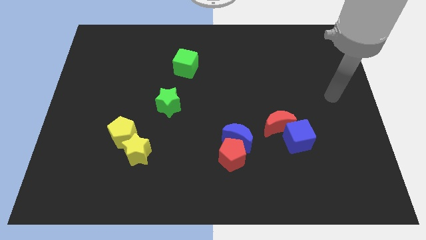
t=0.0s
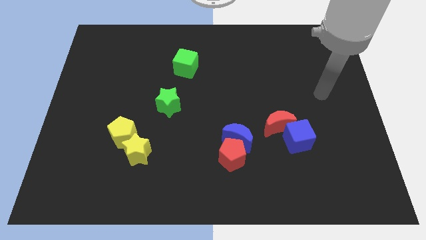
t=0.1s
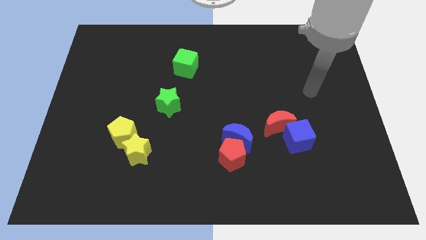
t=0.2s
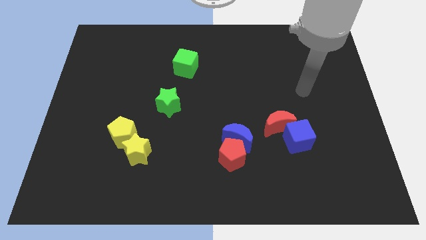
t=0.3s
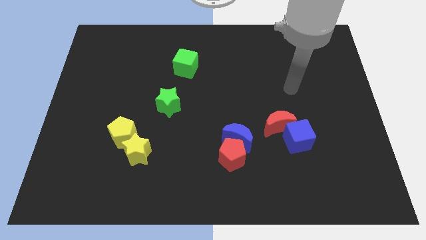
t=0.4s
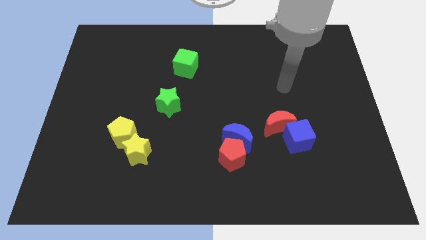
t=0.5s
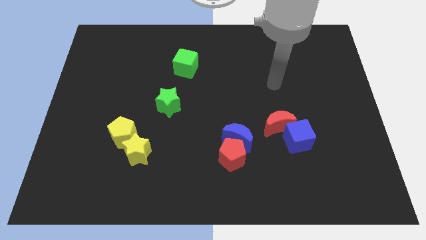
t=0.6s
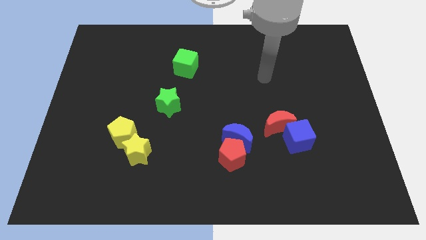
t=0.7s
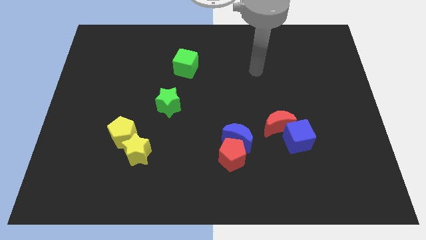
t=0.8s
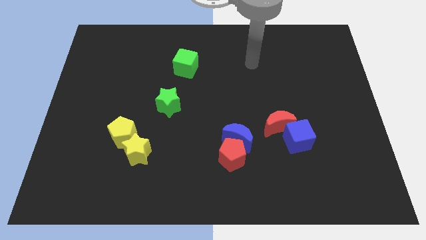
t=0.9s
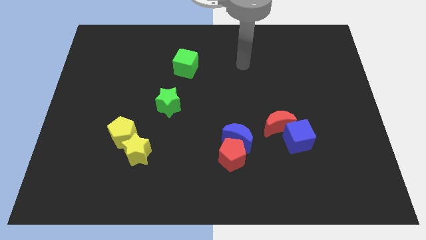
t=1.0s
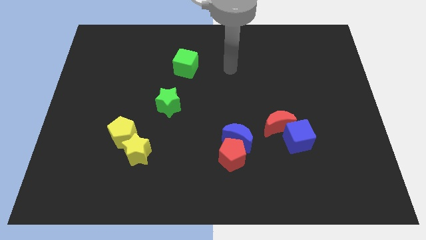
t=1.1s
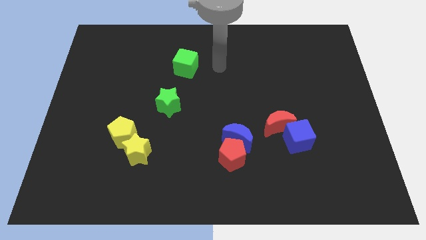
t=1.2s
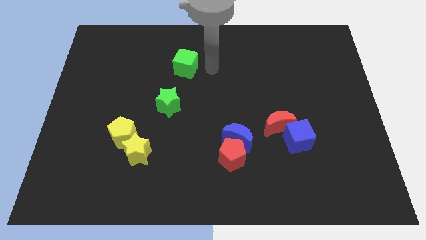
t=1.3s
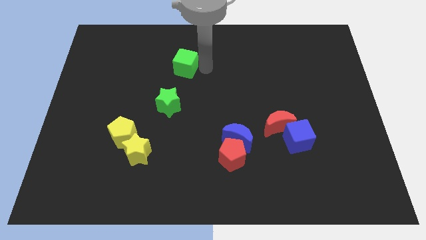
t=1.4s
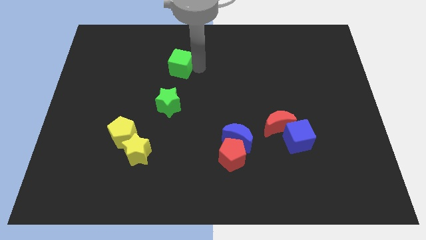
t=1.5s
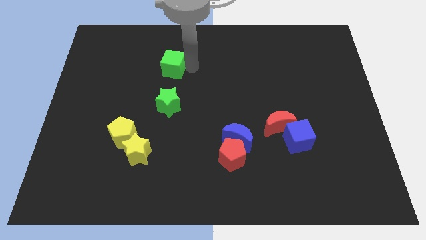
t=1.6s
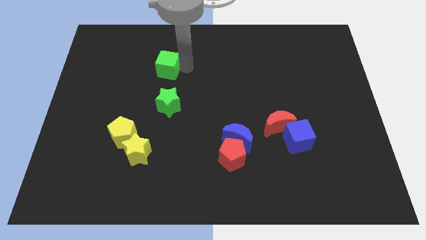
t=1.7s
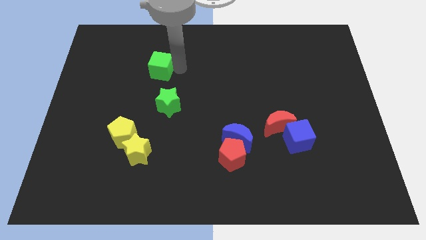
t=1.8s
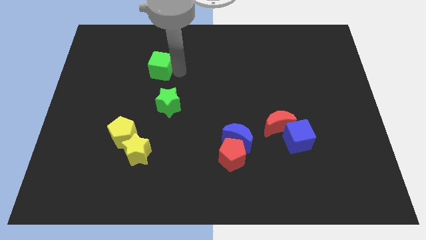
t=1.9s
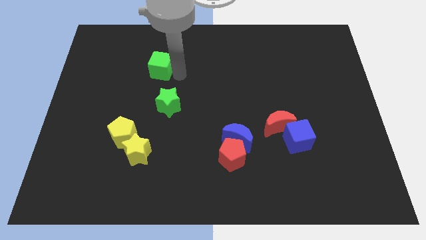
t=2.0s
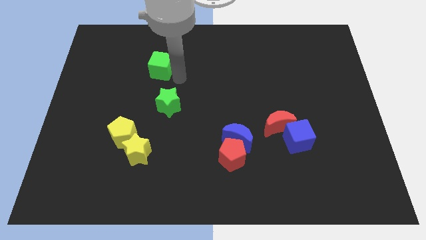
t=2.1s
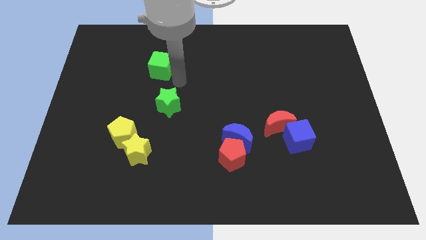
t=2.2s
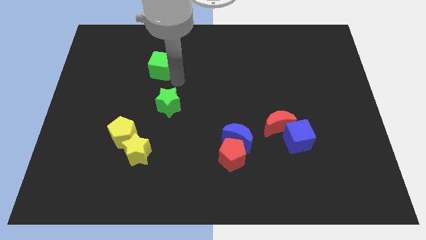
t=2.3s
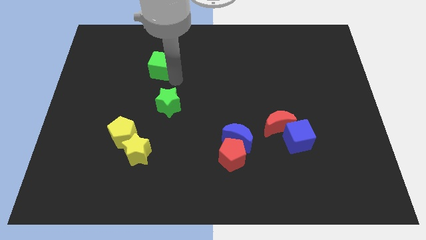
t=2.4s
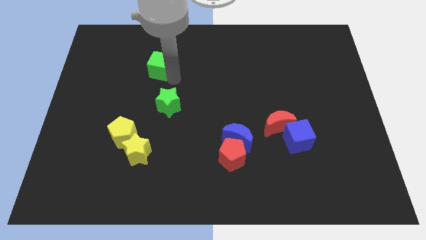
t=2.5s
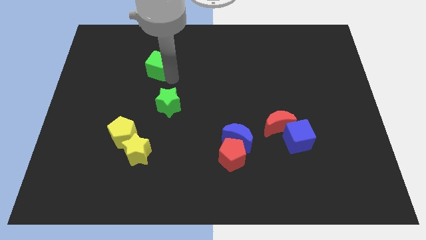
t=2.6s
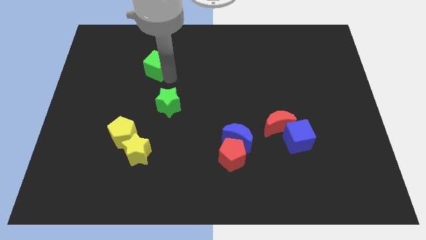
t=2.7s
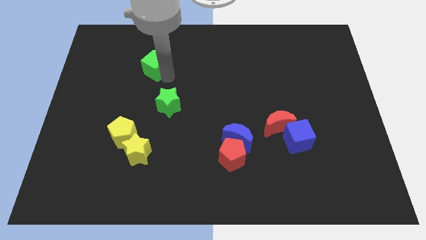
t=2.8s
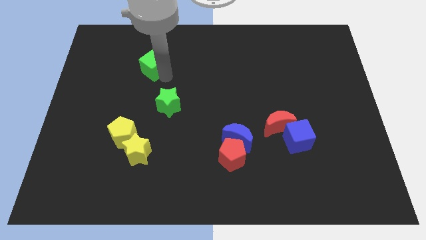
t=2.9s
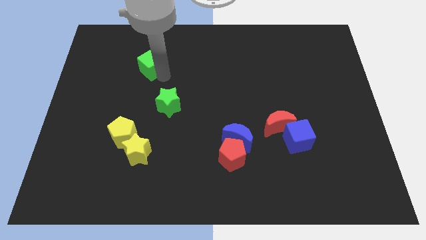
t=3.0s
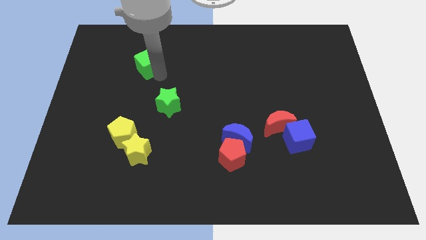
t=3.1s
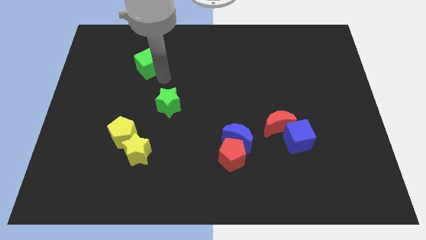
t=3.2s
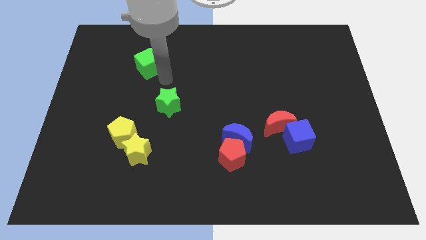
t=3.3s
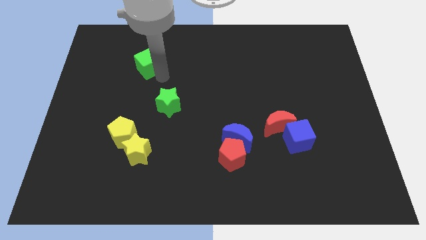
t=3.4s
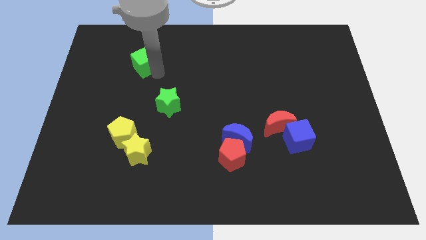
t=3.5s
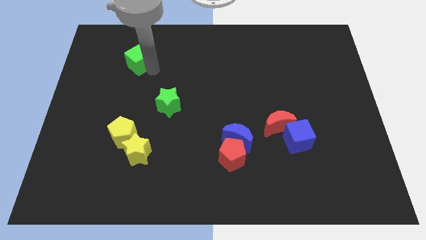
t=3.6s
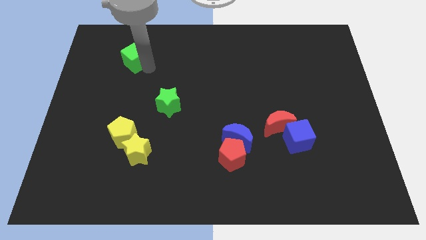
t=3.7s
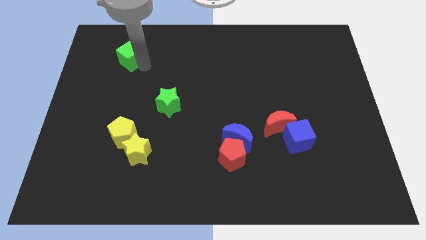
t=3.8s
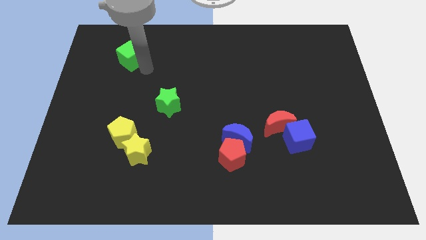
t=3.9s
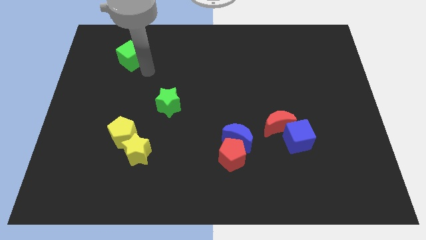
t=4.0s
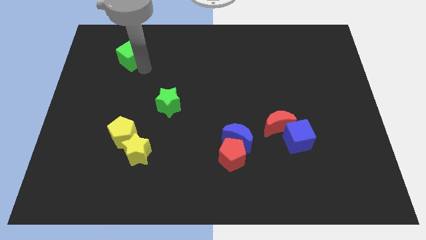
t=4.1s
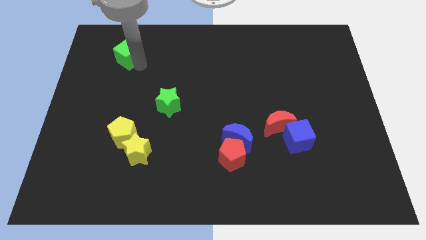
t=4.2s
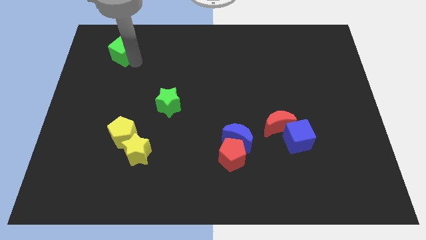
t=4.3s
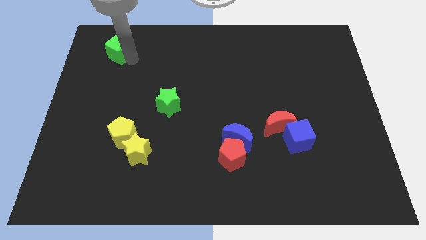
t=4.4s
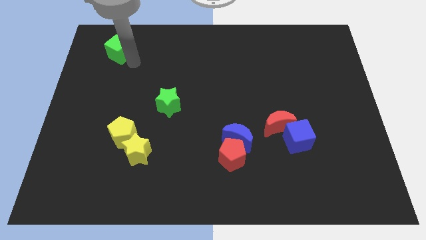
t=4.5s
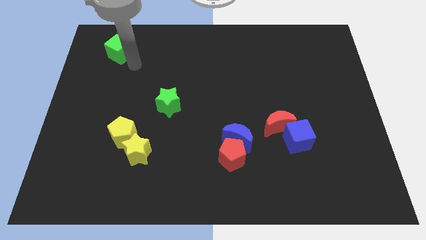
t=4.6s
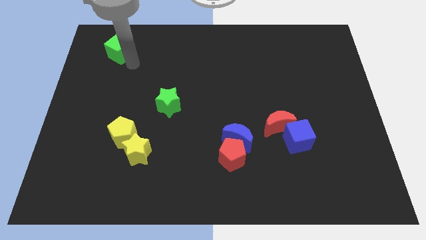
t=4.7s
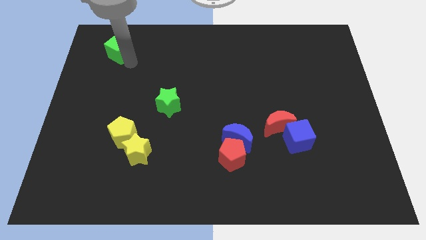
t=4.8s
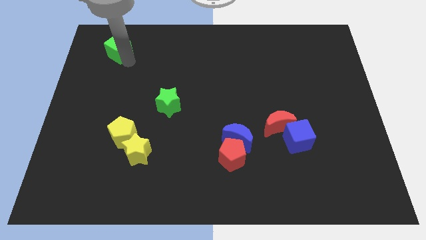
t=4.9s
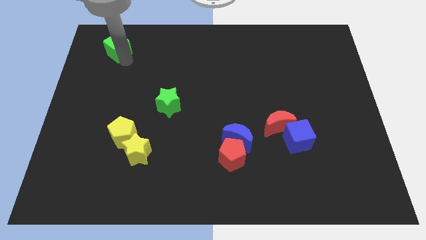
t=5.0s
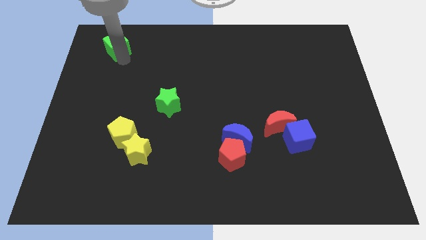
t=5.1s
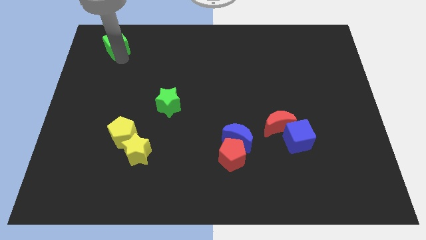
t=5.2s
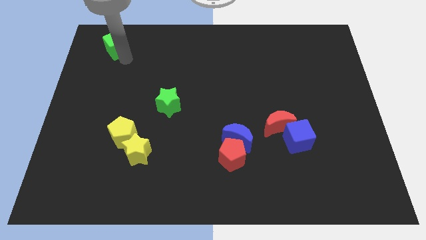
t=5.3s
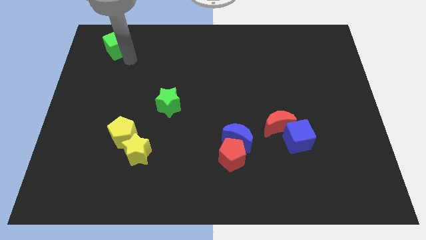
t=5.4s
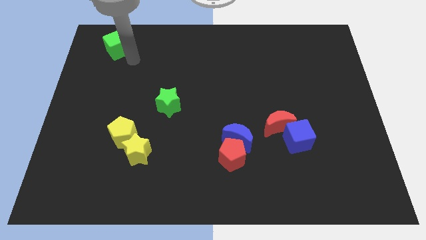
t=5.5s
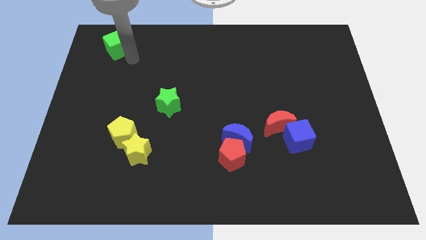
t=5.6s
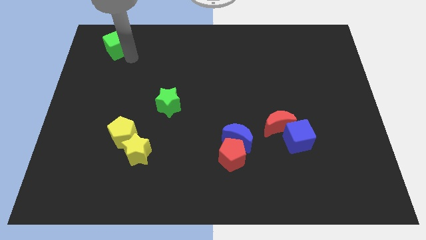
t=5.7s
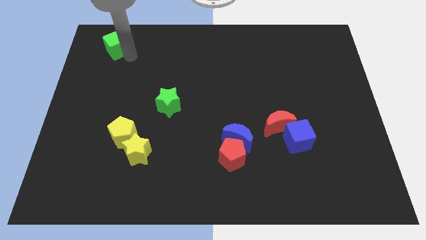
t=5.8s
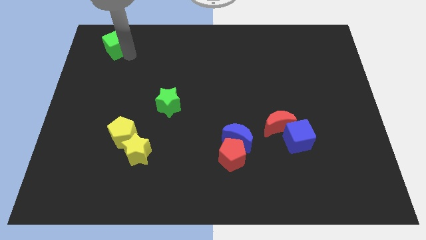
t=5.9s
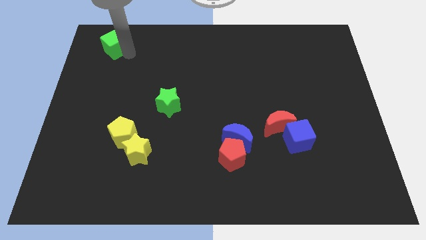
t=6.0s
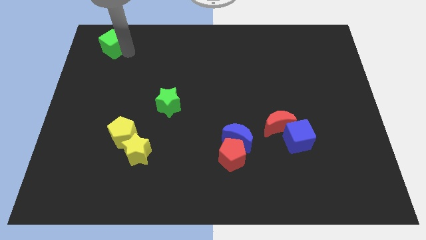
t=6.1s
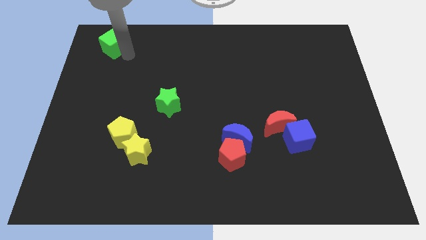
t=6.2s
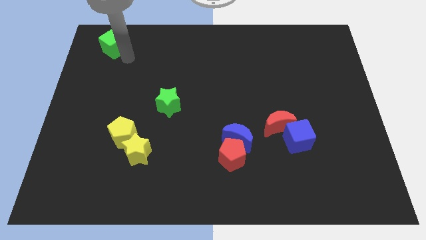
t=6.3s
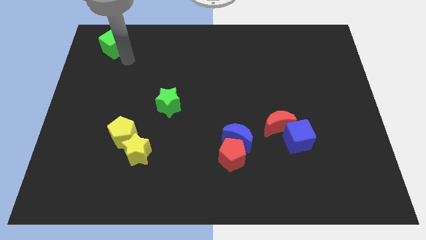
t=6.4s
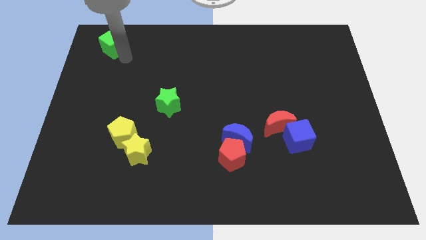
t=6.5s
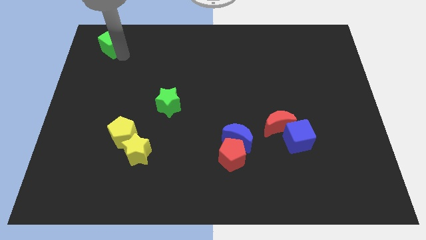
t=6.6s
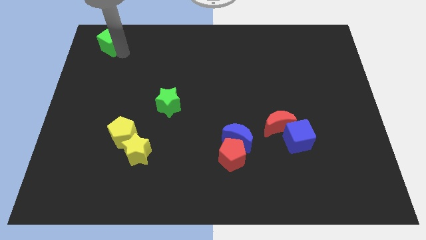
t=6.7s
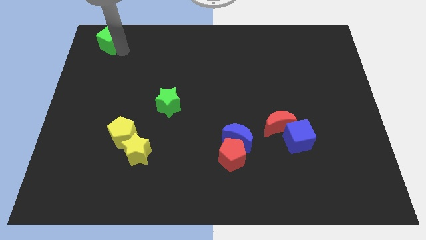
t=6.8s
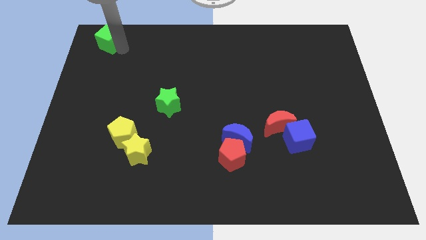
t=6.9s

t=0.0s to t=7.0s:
push the green cube to the top left corner
